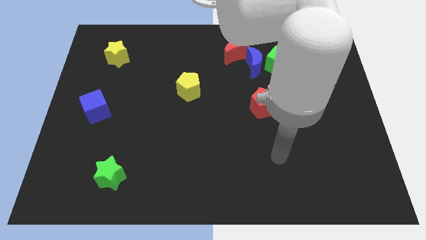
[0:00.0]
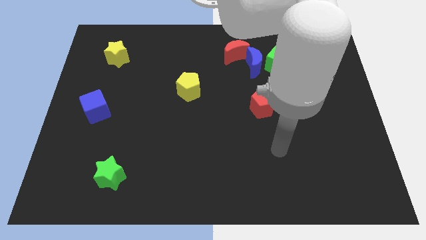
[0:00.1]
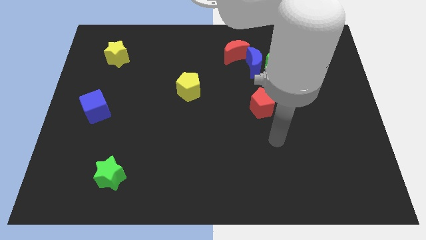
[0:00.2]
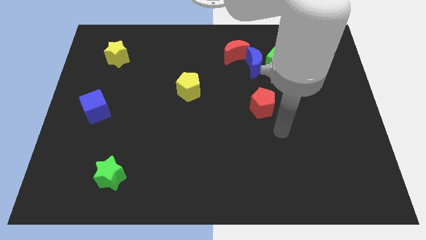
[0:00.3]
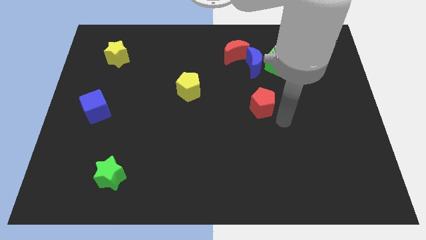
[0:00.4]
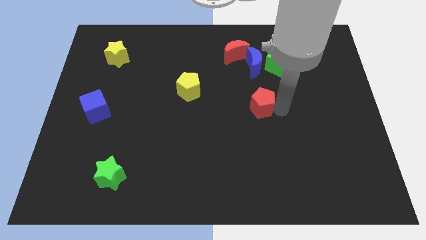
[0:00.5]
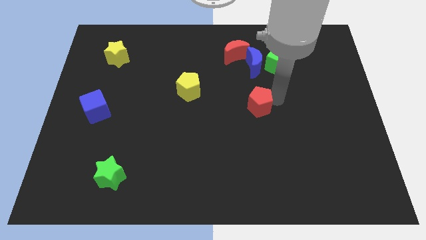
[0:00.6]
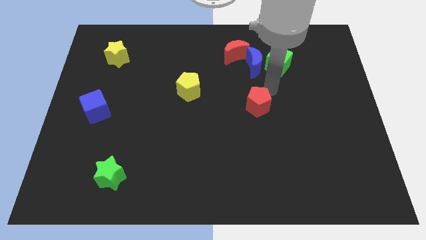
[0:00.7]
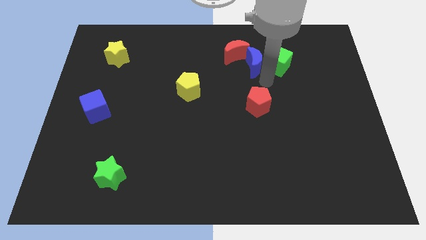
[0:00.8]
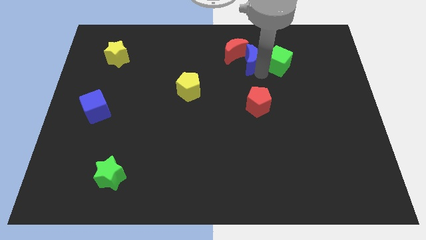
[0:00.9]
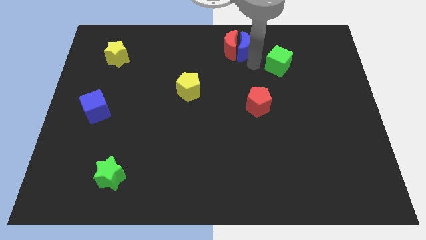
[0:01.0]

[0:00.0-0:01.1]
move the green cube away from the blue moon

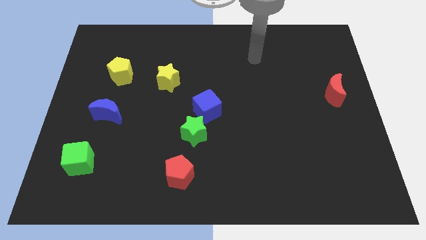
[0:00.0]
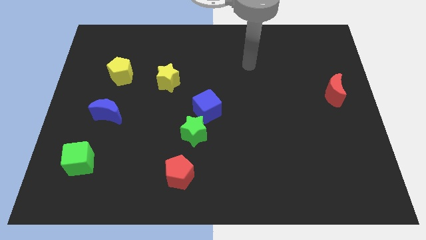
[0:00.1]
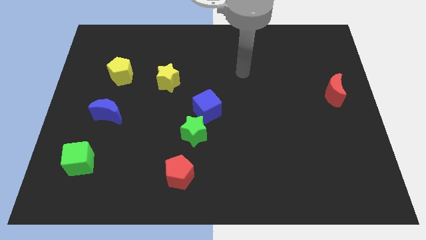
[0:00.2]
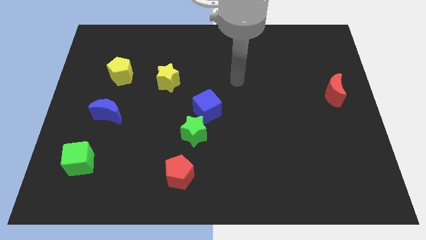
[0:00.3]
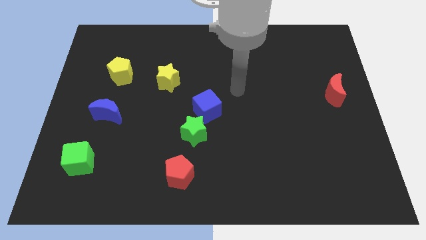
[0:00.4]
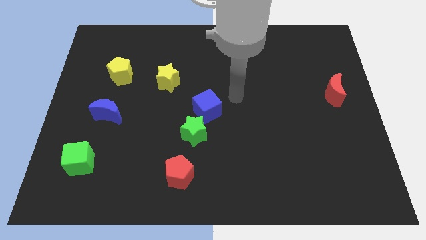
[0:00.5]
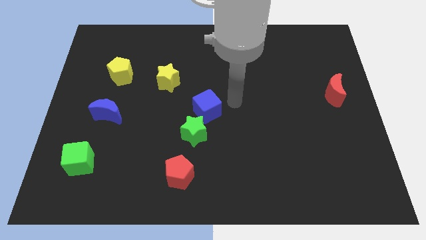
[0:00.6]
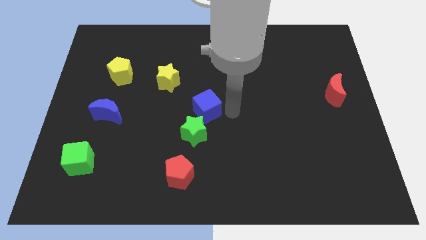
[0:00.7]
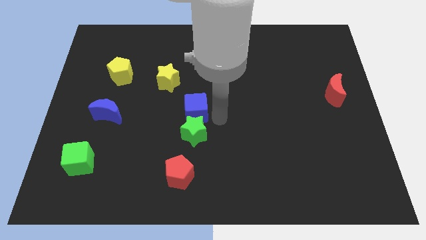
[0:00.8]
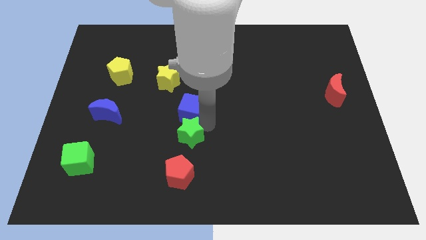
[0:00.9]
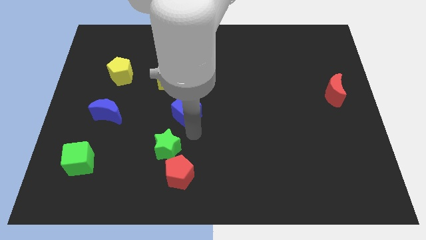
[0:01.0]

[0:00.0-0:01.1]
separate the blue cube from the green star

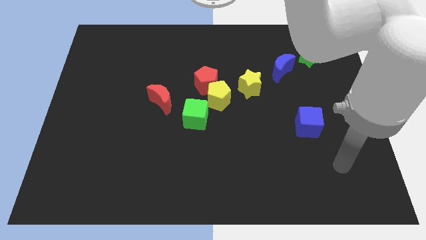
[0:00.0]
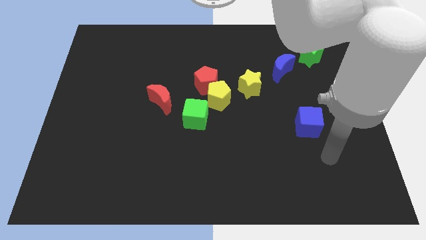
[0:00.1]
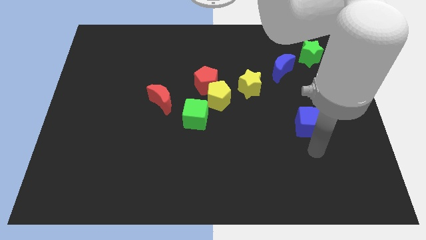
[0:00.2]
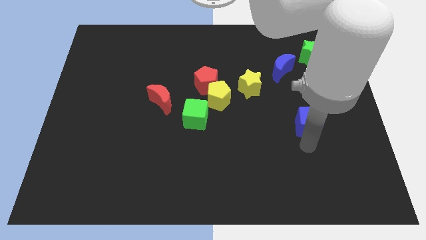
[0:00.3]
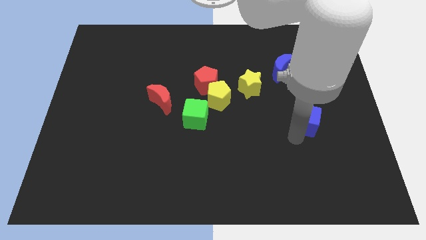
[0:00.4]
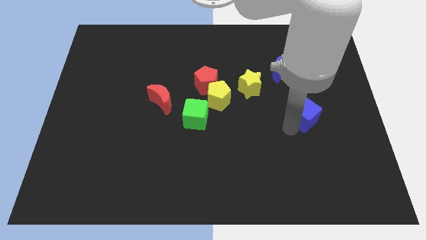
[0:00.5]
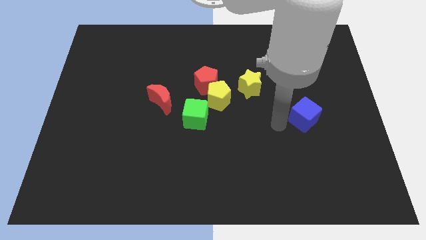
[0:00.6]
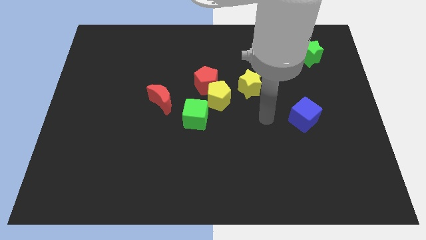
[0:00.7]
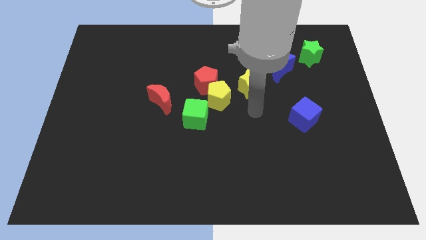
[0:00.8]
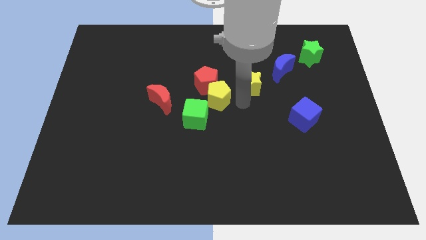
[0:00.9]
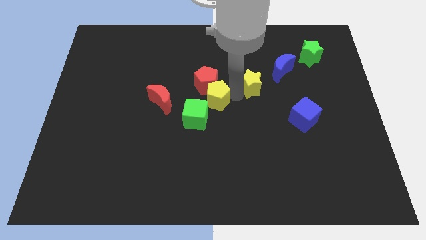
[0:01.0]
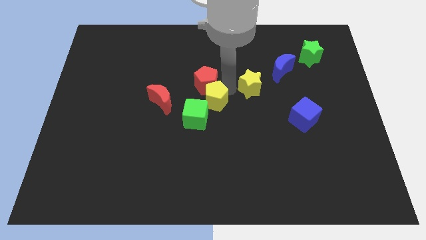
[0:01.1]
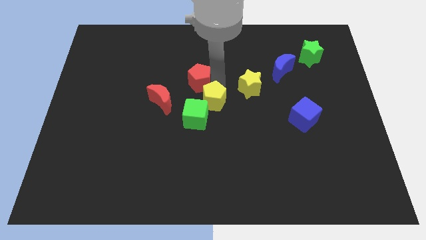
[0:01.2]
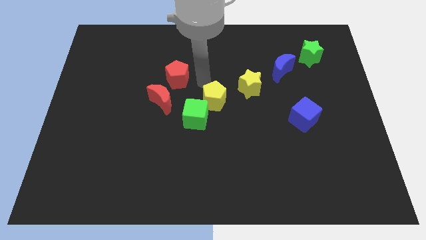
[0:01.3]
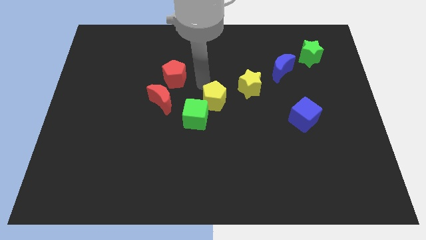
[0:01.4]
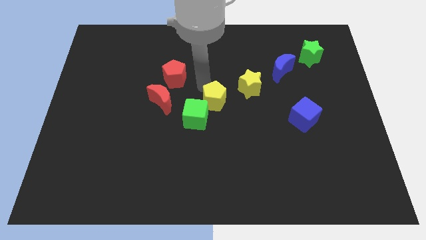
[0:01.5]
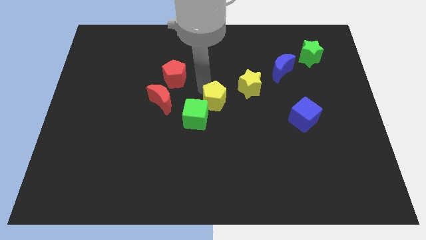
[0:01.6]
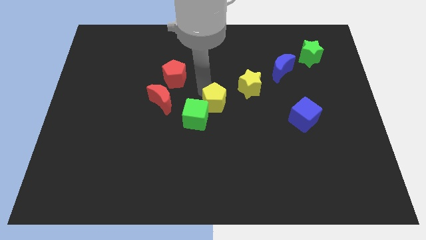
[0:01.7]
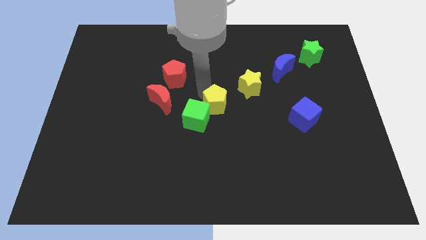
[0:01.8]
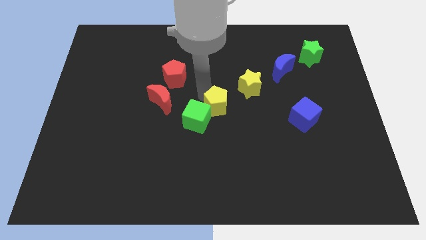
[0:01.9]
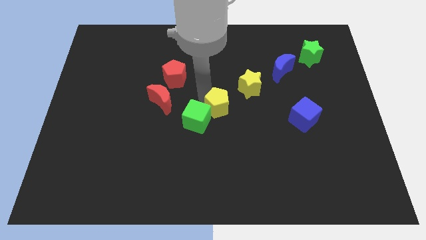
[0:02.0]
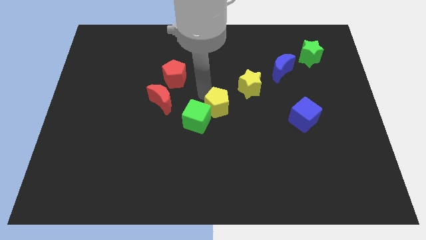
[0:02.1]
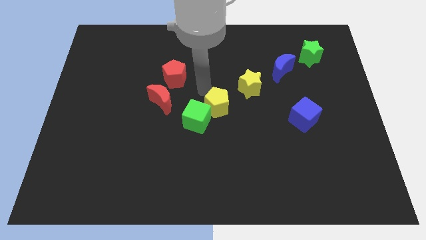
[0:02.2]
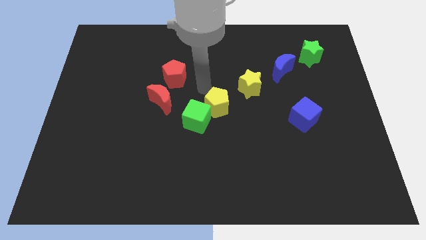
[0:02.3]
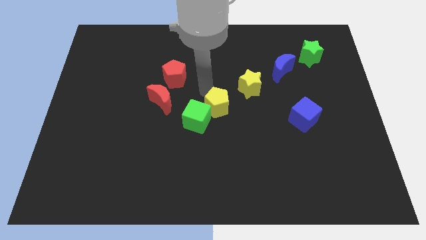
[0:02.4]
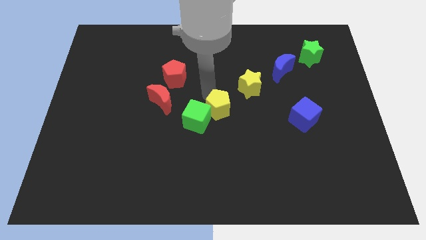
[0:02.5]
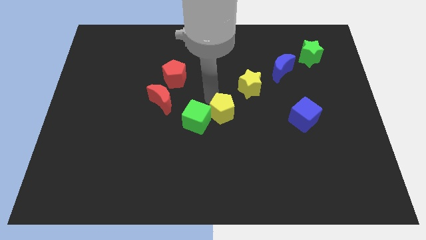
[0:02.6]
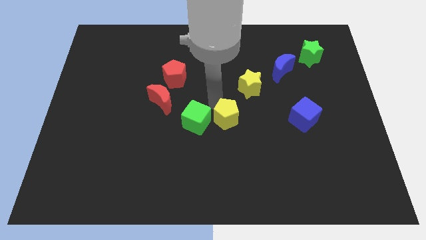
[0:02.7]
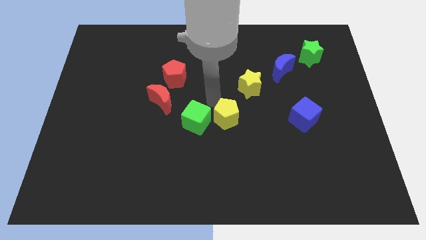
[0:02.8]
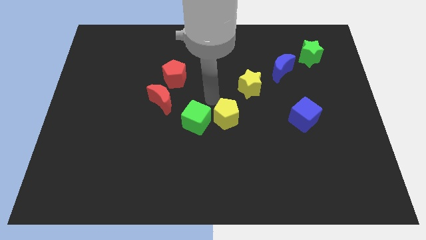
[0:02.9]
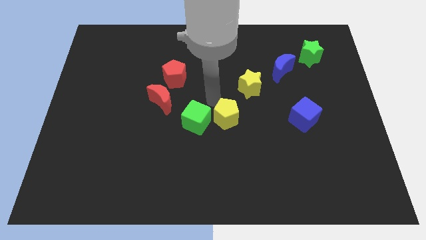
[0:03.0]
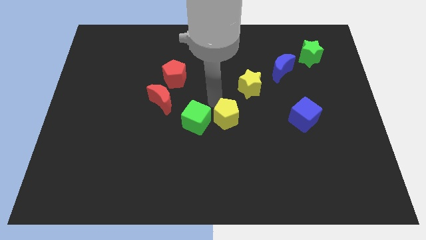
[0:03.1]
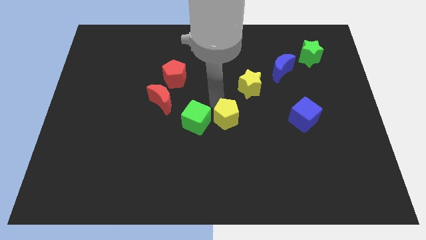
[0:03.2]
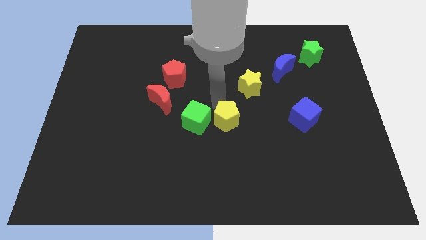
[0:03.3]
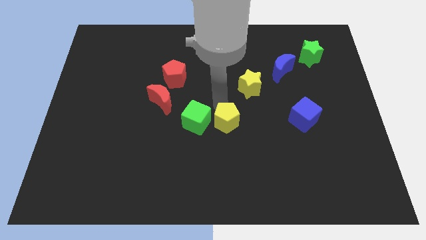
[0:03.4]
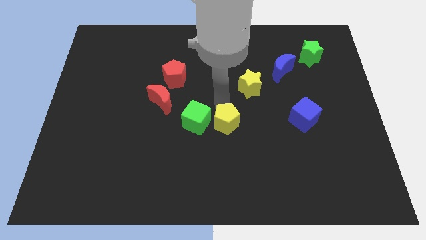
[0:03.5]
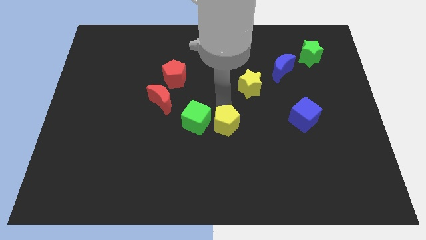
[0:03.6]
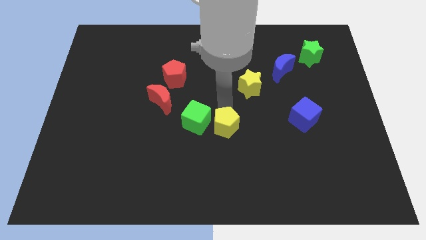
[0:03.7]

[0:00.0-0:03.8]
move the yellow pentagon away from the group

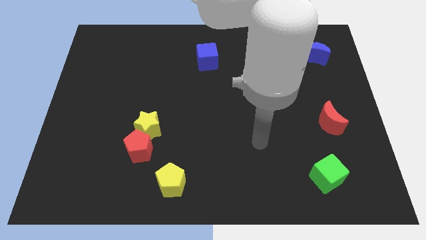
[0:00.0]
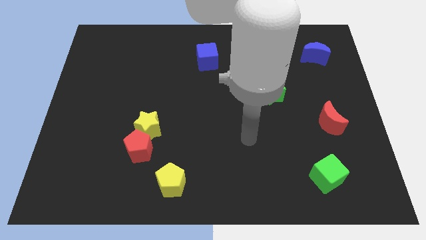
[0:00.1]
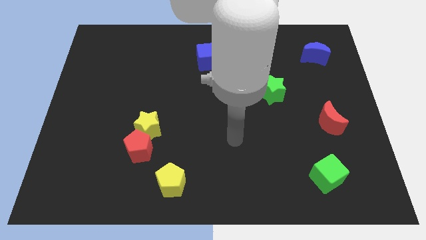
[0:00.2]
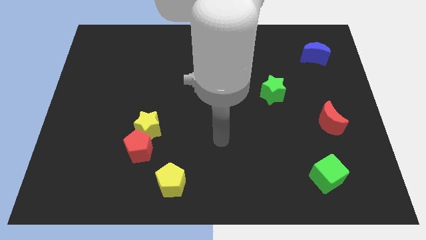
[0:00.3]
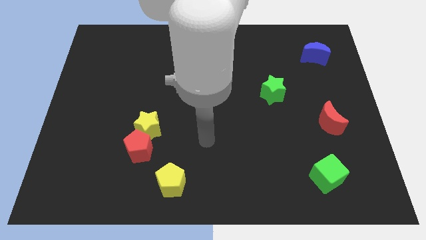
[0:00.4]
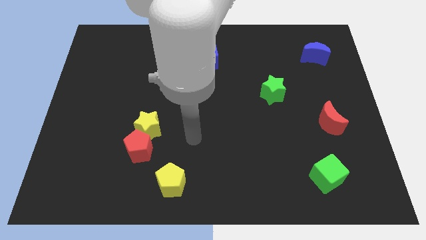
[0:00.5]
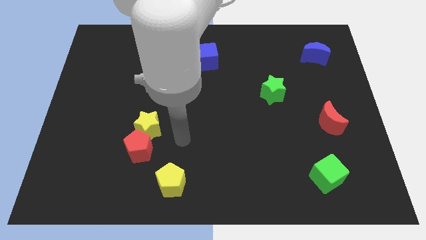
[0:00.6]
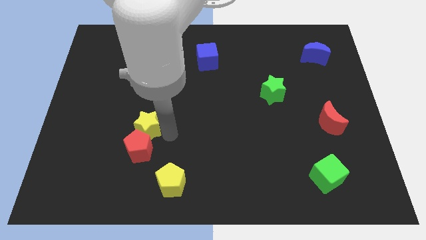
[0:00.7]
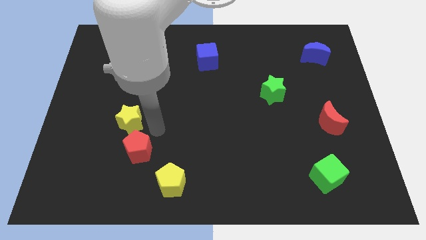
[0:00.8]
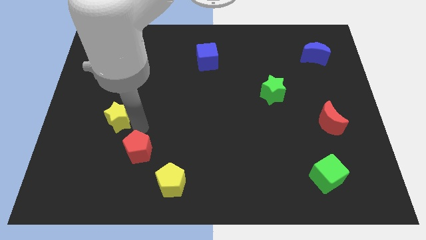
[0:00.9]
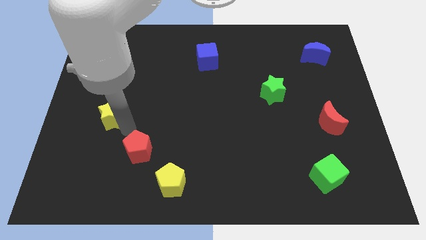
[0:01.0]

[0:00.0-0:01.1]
separate the red pentagon from the yellow star

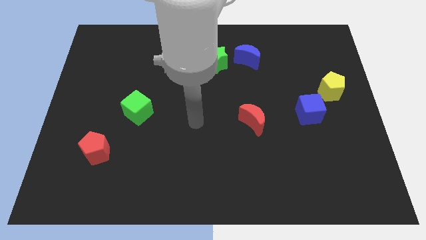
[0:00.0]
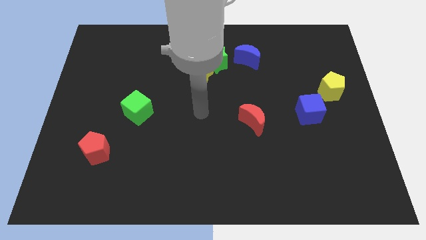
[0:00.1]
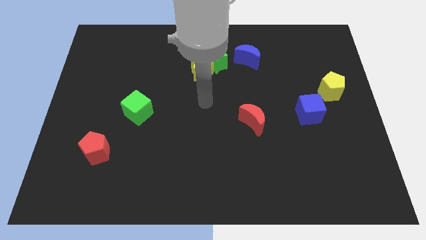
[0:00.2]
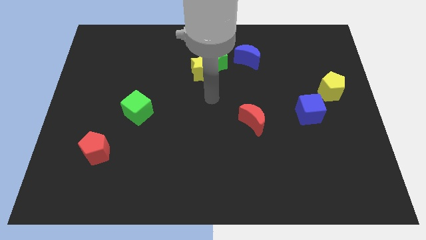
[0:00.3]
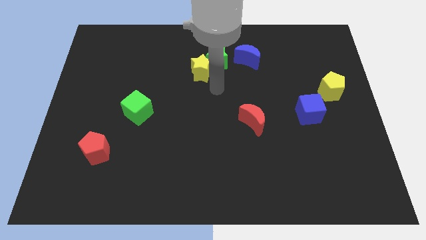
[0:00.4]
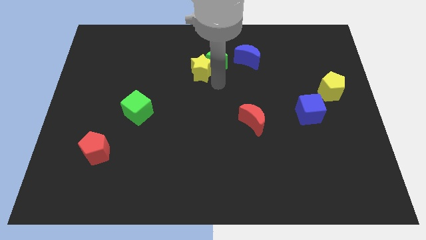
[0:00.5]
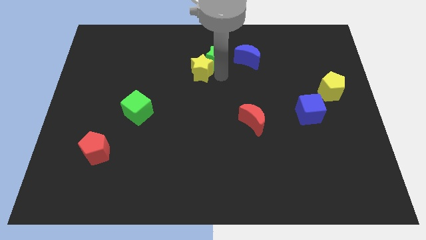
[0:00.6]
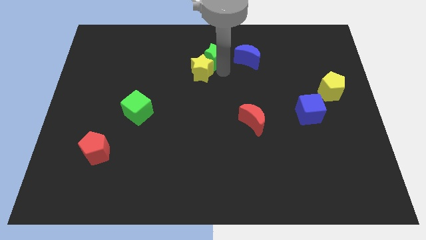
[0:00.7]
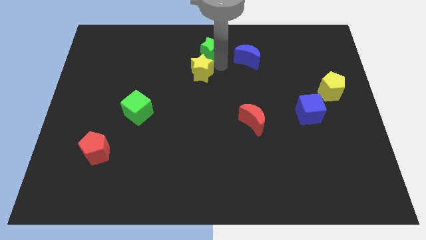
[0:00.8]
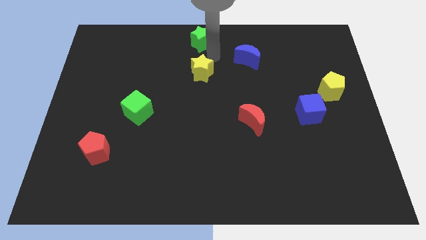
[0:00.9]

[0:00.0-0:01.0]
separate the yellow star from the green star

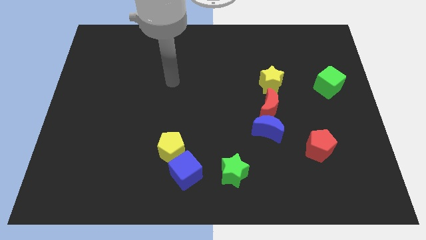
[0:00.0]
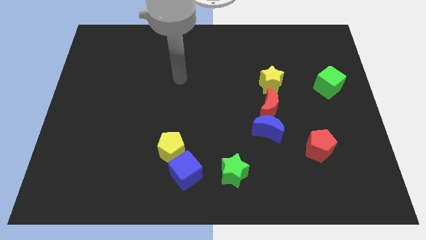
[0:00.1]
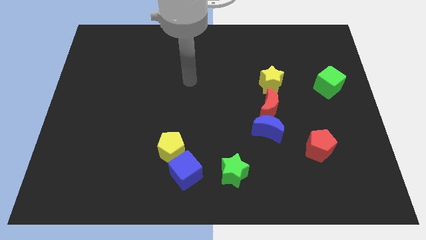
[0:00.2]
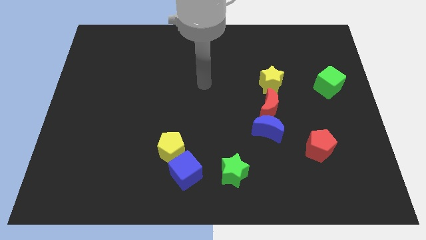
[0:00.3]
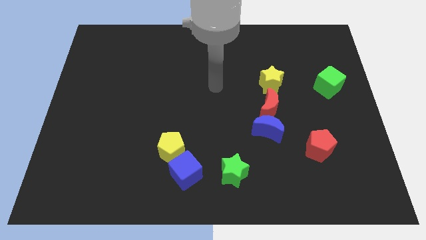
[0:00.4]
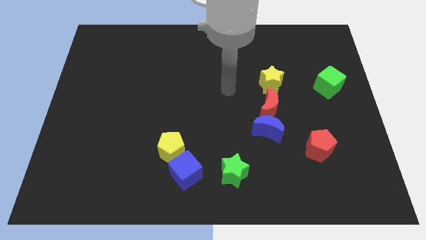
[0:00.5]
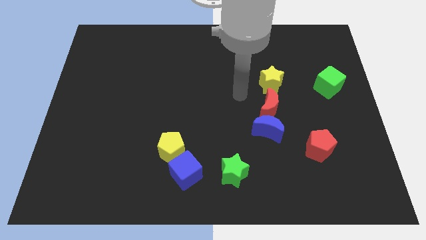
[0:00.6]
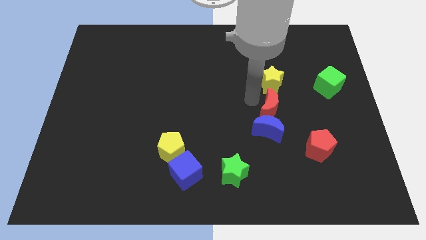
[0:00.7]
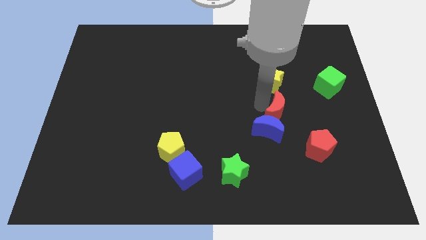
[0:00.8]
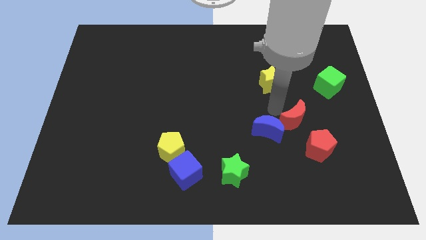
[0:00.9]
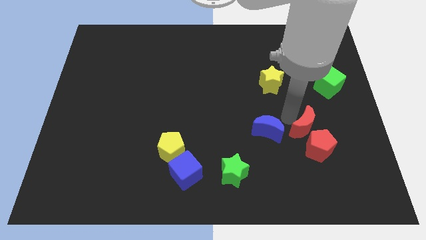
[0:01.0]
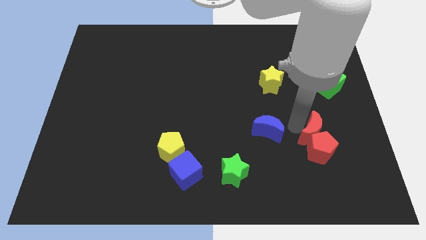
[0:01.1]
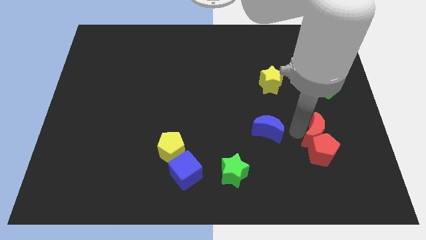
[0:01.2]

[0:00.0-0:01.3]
separate the blue moon from the red moon
